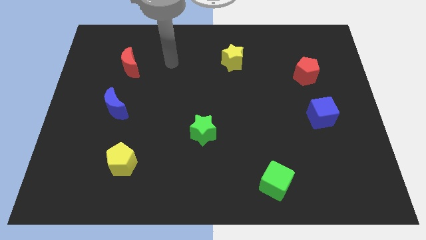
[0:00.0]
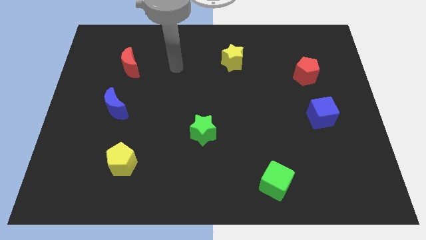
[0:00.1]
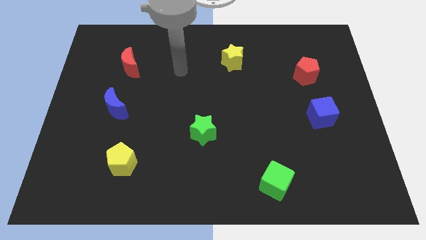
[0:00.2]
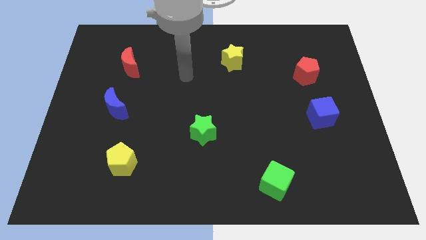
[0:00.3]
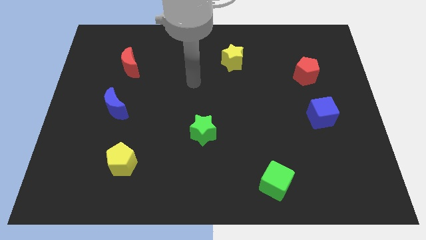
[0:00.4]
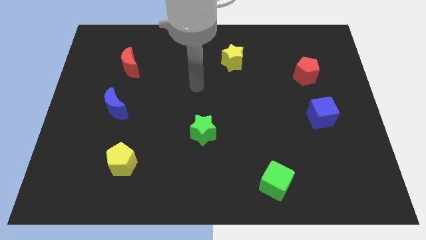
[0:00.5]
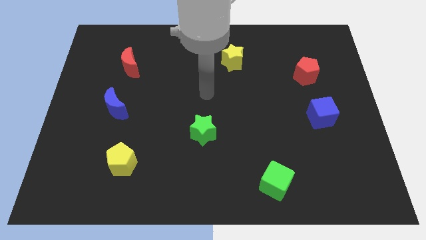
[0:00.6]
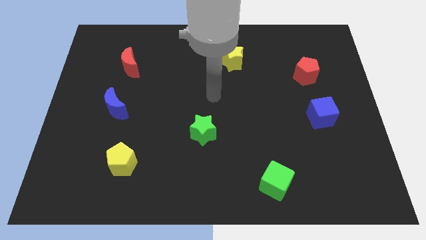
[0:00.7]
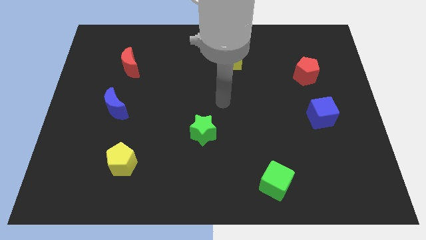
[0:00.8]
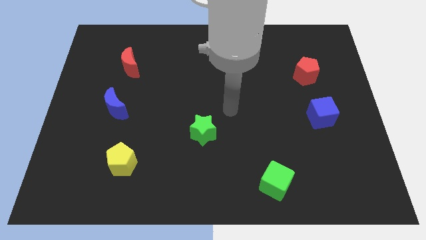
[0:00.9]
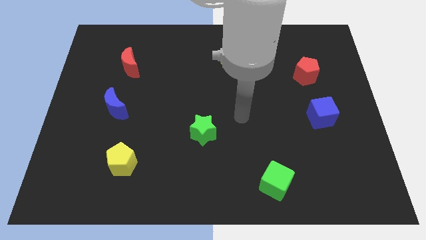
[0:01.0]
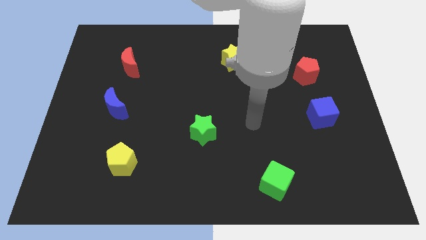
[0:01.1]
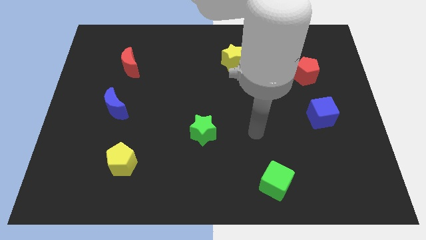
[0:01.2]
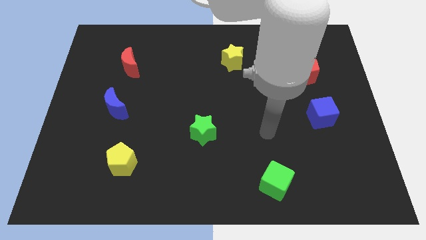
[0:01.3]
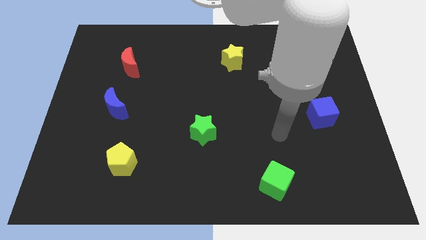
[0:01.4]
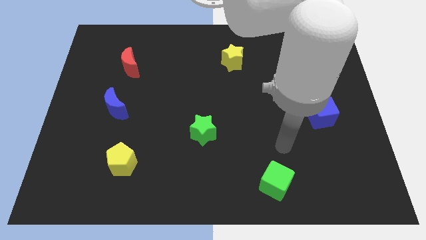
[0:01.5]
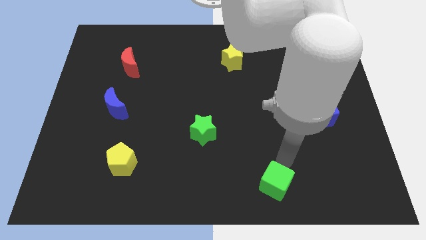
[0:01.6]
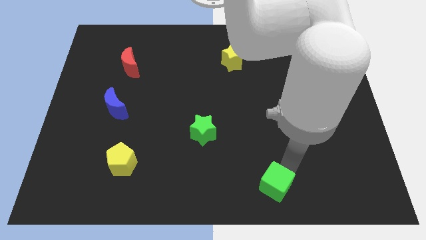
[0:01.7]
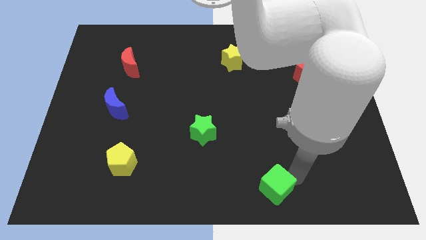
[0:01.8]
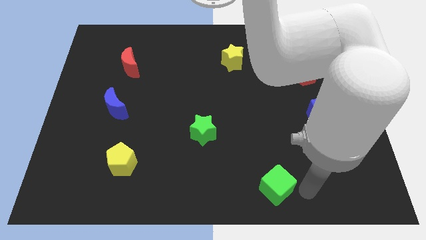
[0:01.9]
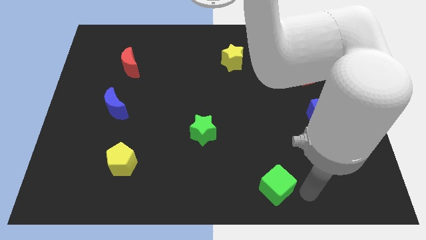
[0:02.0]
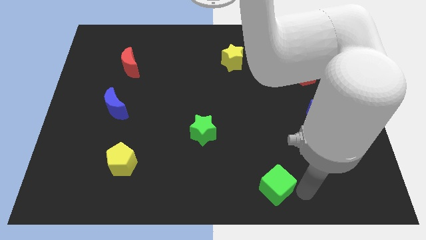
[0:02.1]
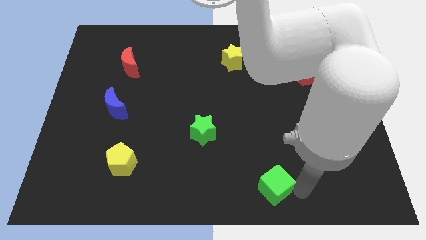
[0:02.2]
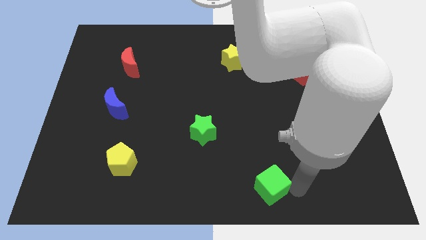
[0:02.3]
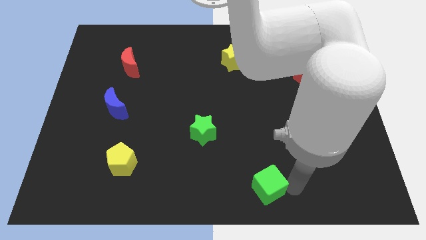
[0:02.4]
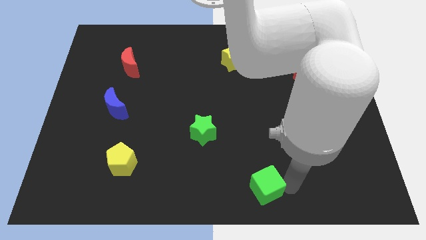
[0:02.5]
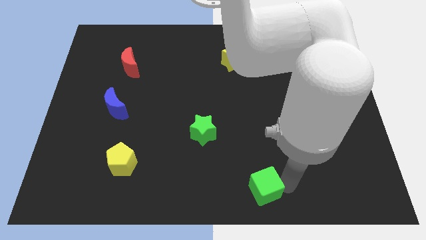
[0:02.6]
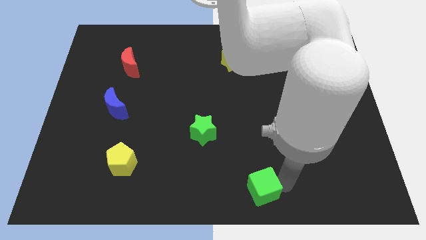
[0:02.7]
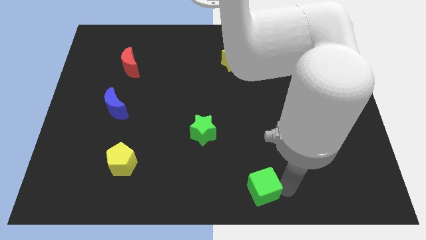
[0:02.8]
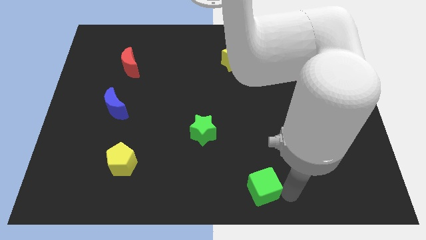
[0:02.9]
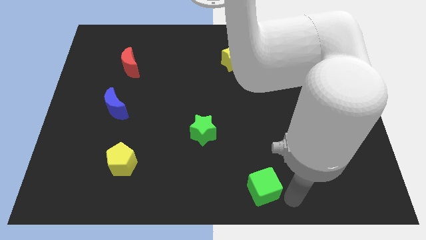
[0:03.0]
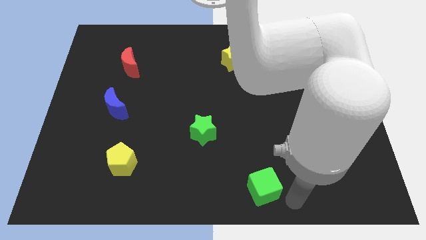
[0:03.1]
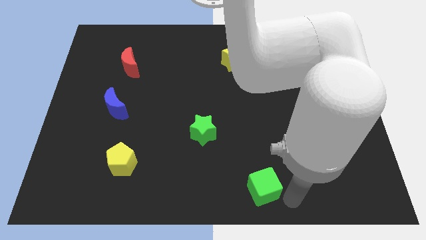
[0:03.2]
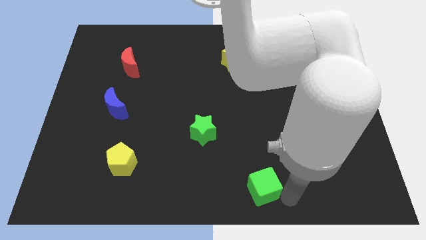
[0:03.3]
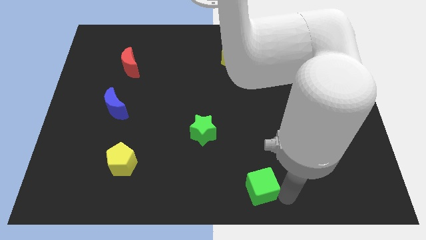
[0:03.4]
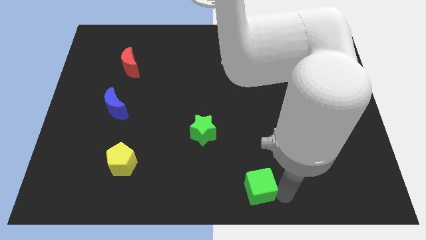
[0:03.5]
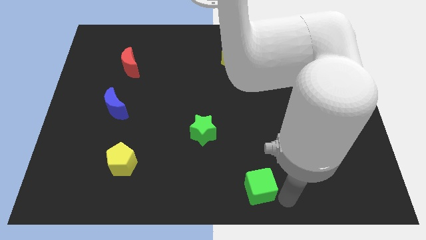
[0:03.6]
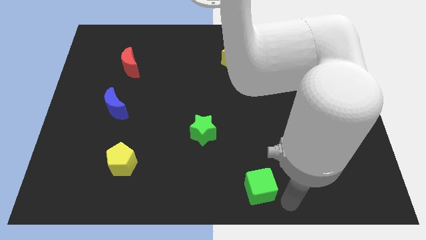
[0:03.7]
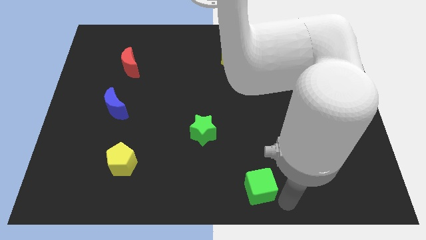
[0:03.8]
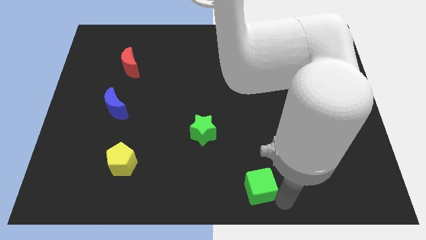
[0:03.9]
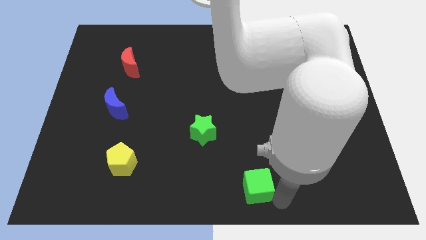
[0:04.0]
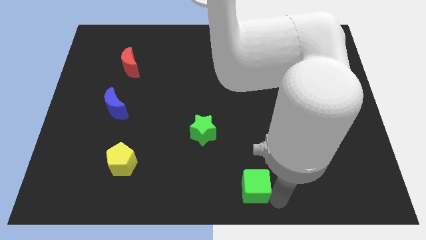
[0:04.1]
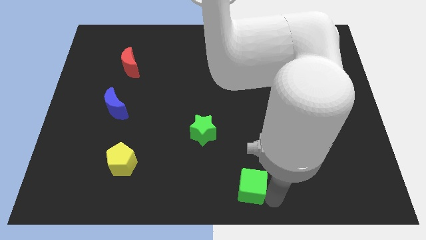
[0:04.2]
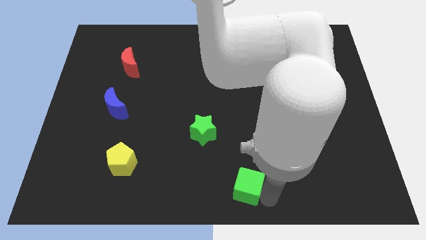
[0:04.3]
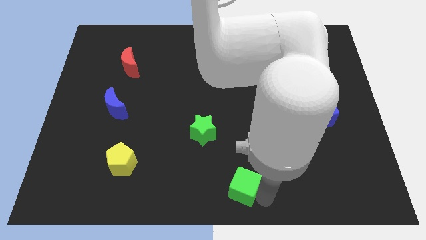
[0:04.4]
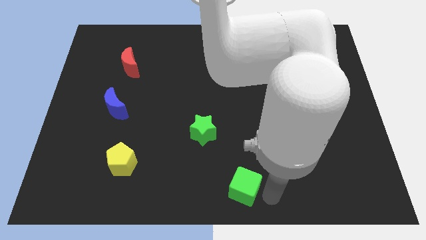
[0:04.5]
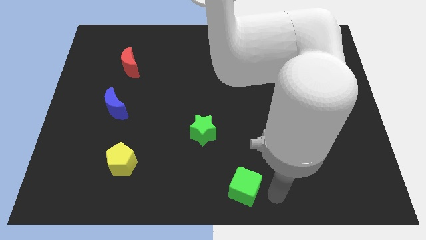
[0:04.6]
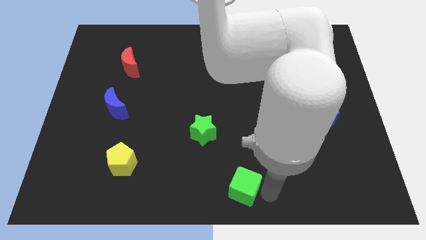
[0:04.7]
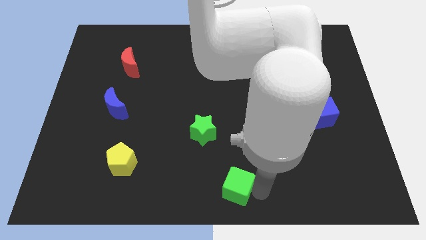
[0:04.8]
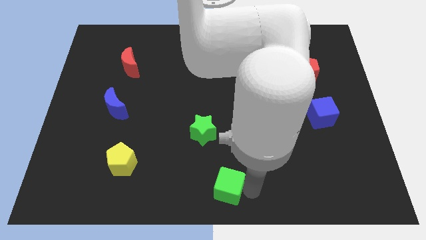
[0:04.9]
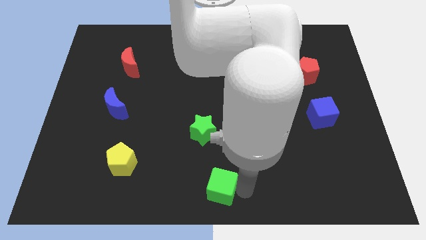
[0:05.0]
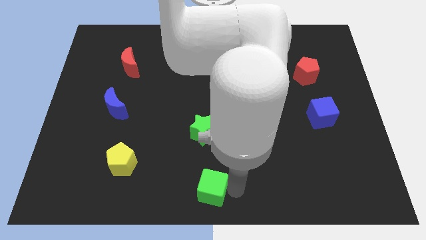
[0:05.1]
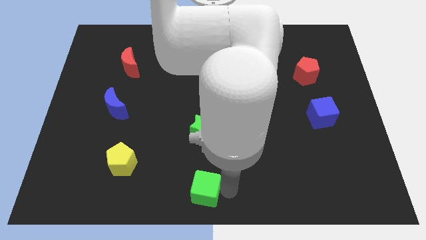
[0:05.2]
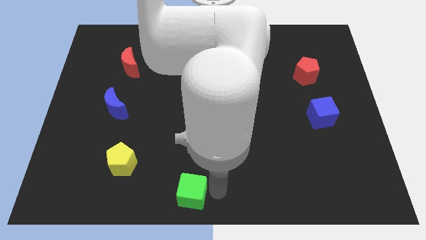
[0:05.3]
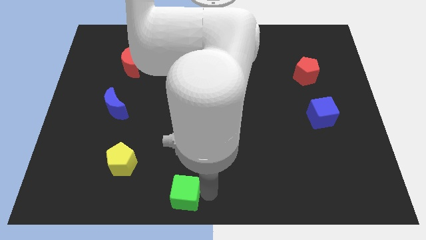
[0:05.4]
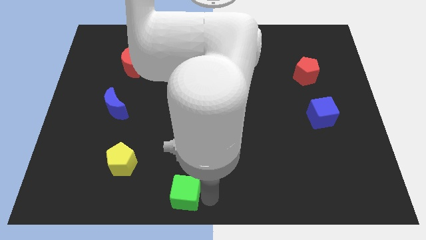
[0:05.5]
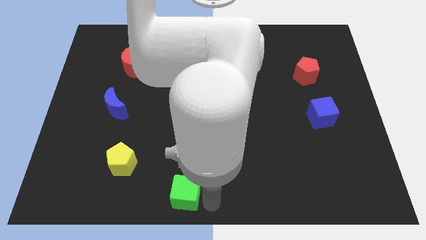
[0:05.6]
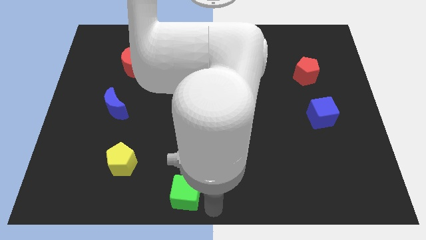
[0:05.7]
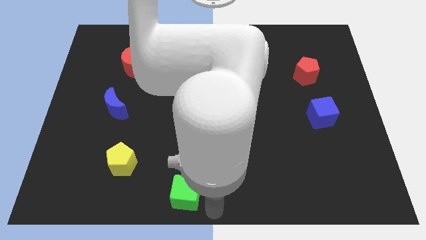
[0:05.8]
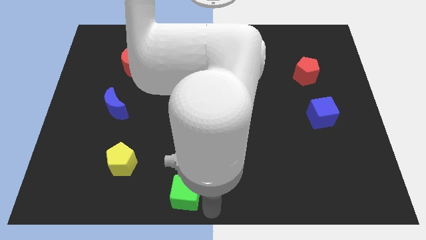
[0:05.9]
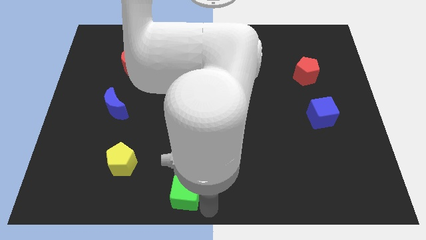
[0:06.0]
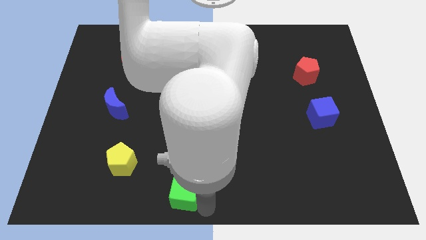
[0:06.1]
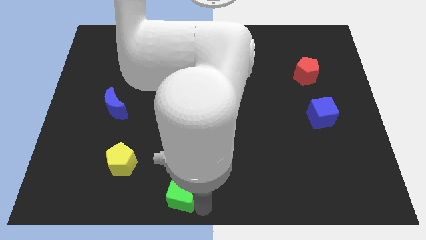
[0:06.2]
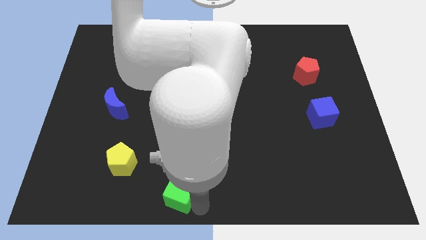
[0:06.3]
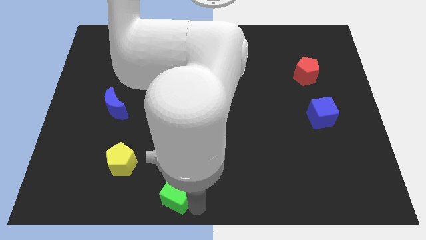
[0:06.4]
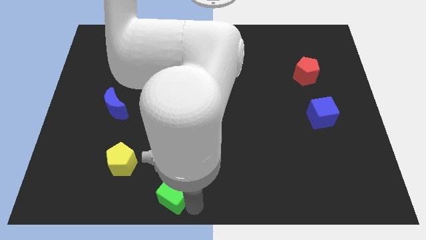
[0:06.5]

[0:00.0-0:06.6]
move the green cube to the left

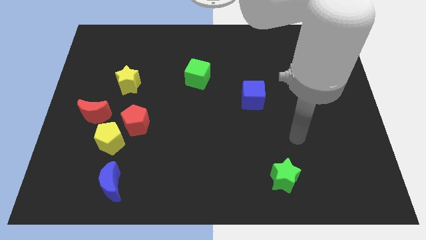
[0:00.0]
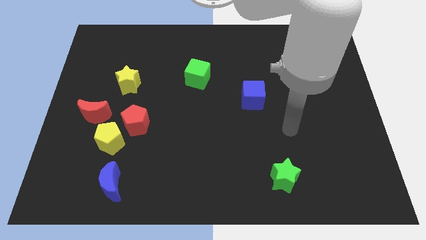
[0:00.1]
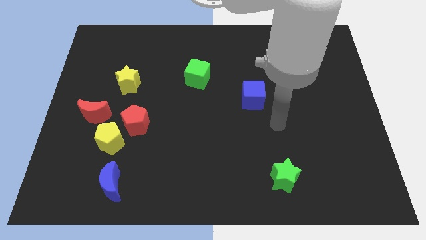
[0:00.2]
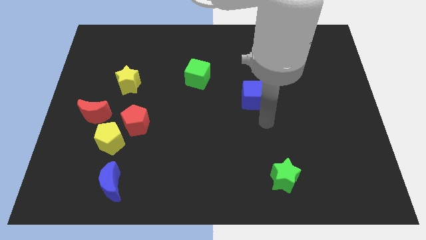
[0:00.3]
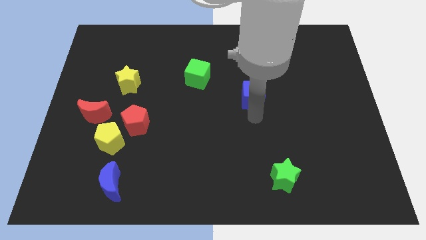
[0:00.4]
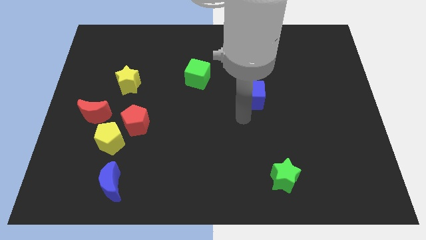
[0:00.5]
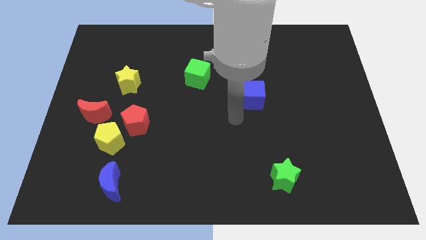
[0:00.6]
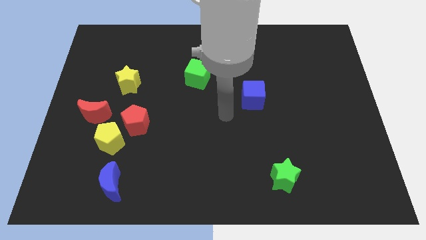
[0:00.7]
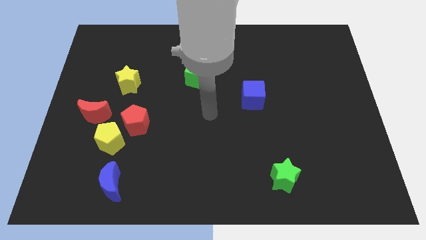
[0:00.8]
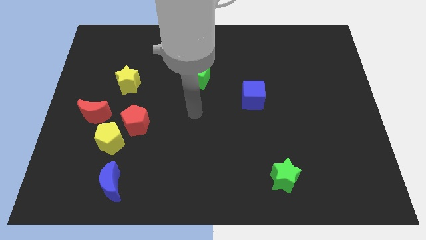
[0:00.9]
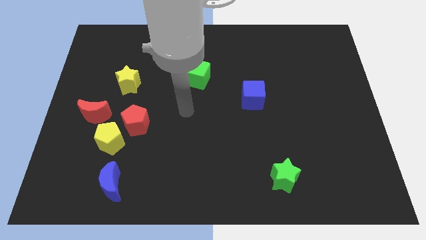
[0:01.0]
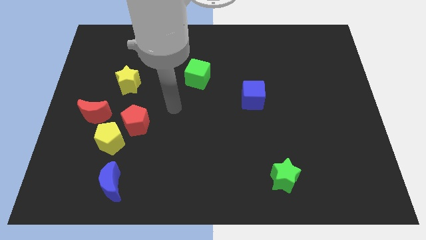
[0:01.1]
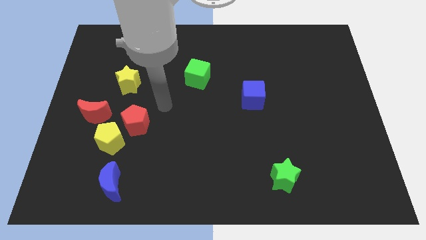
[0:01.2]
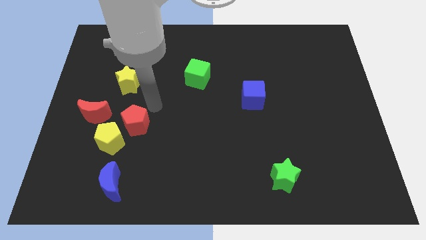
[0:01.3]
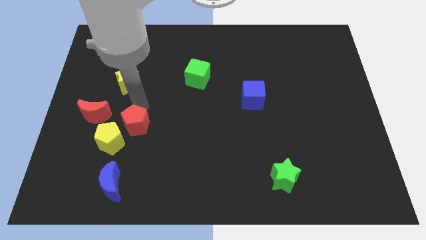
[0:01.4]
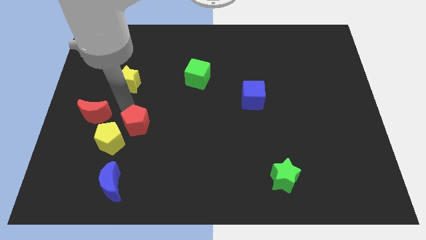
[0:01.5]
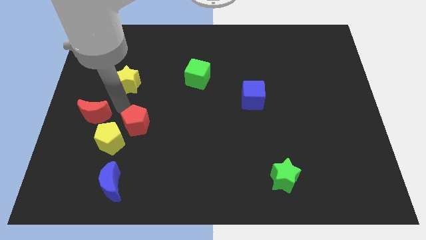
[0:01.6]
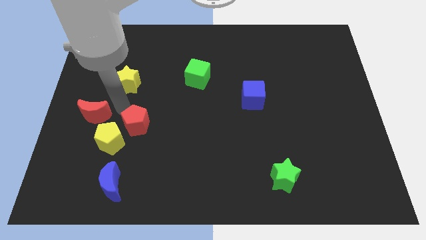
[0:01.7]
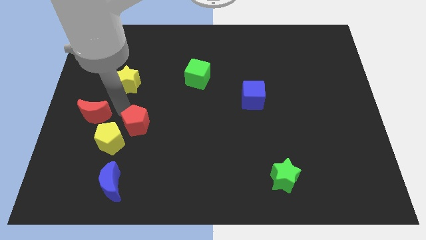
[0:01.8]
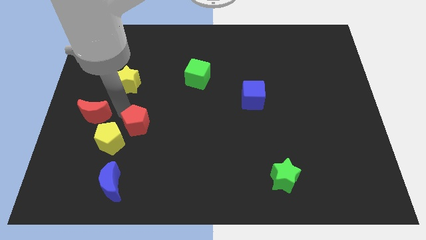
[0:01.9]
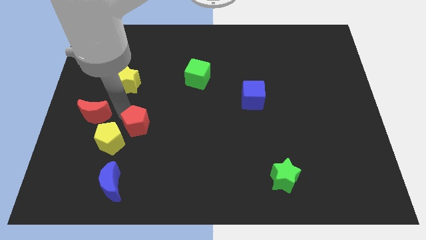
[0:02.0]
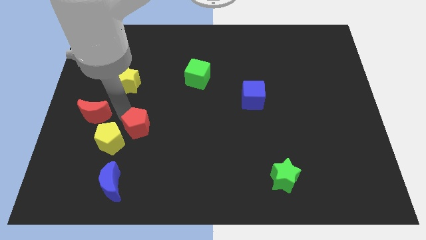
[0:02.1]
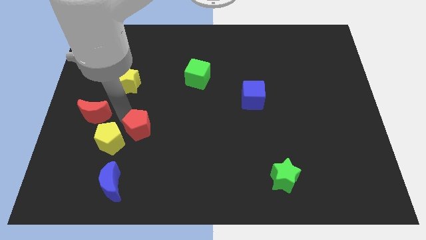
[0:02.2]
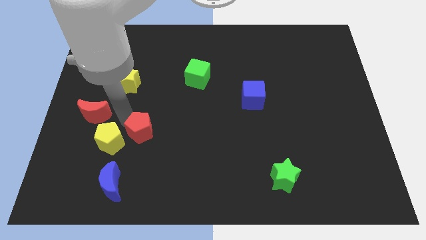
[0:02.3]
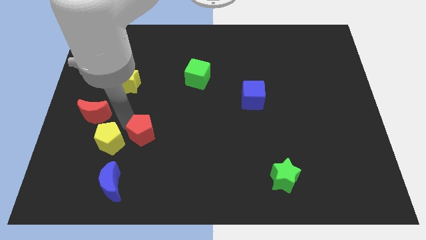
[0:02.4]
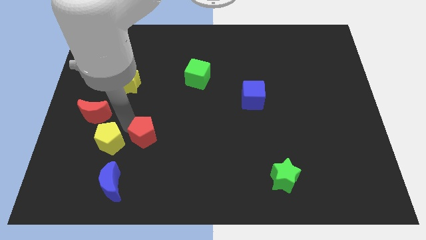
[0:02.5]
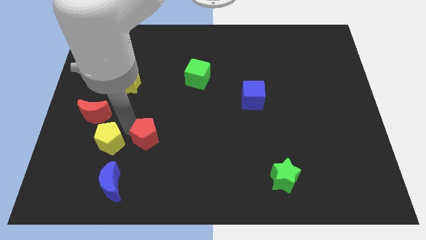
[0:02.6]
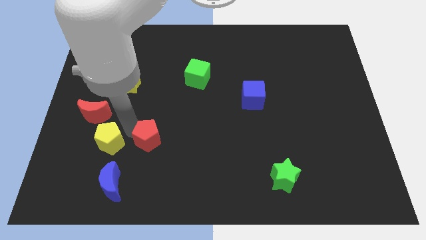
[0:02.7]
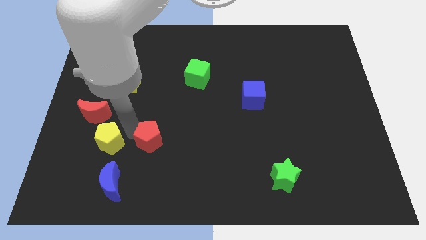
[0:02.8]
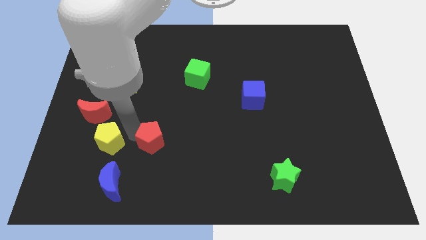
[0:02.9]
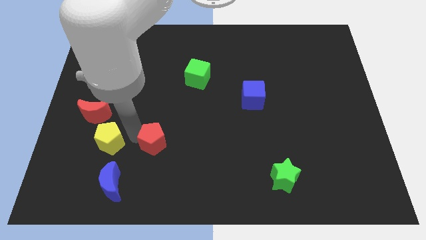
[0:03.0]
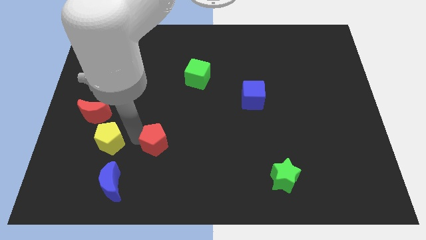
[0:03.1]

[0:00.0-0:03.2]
slide the red pentagon somewhat diagonally down and to the right
